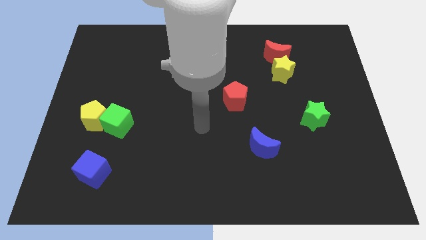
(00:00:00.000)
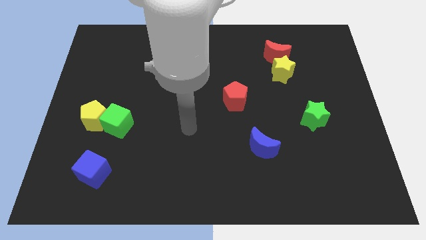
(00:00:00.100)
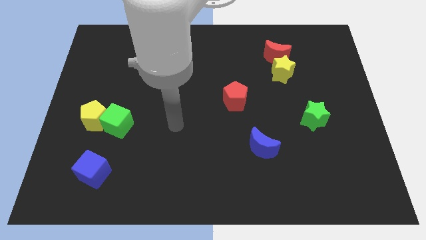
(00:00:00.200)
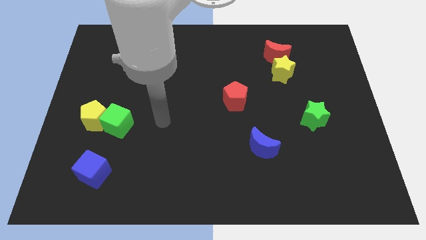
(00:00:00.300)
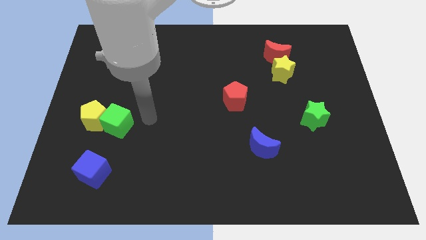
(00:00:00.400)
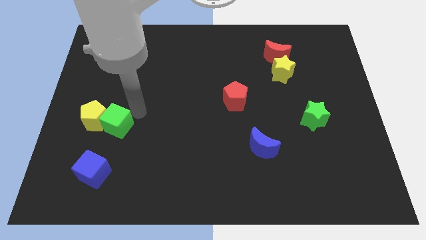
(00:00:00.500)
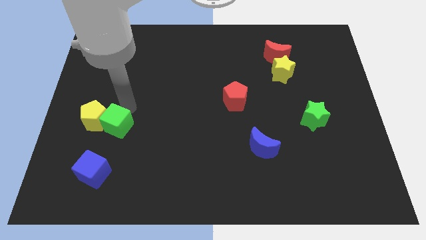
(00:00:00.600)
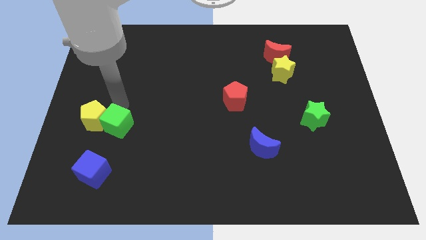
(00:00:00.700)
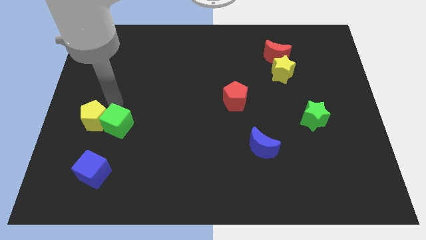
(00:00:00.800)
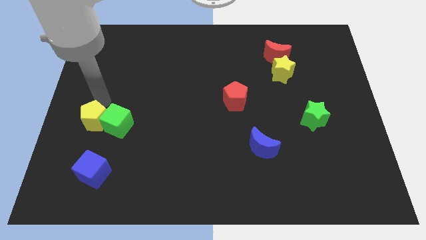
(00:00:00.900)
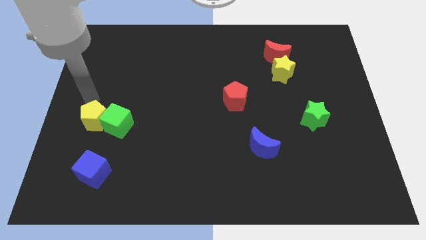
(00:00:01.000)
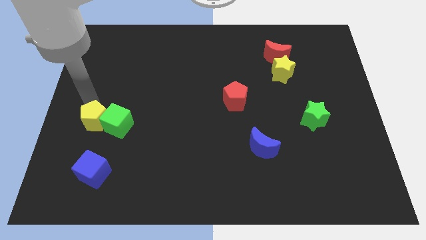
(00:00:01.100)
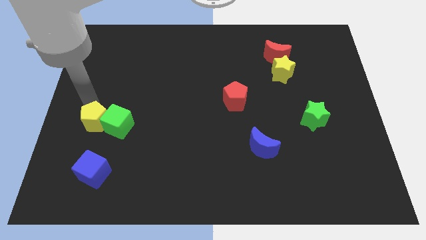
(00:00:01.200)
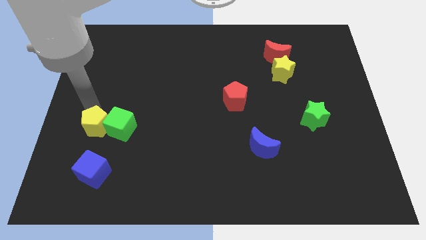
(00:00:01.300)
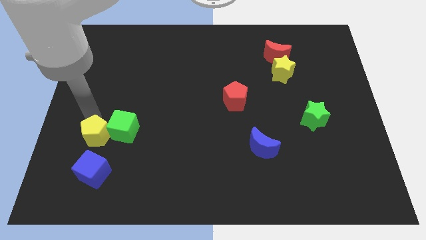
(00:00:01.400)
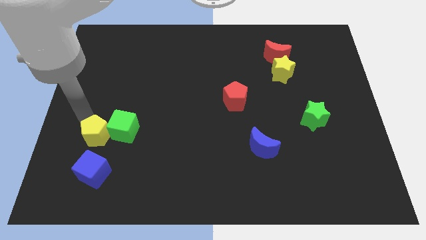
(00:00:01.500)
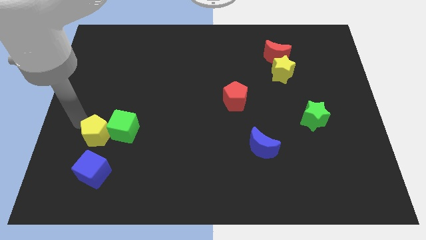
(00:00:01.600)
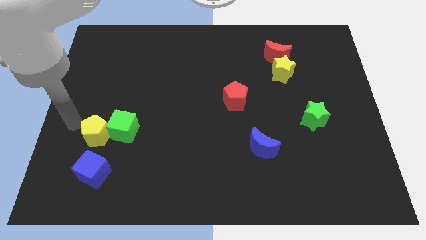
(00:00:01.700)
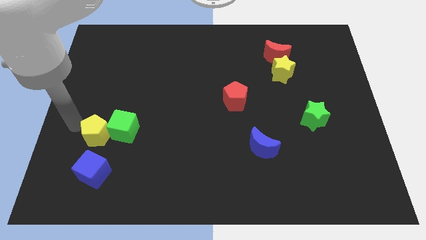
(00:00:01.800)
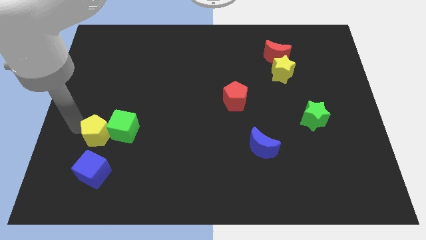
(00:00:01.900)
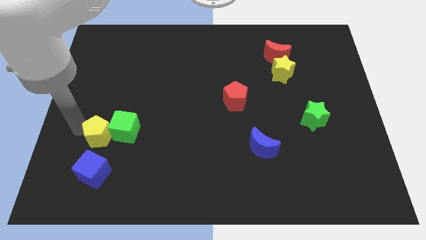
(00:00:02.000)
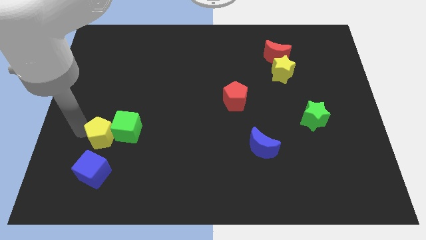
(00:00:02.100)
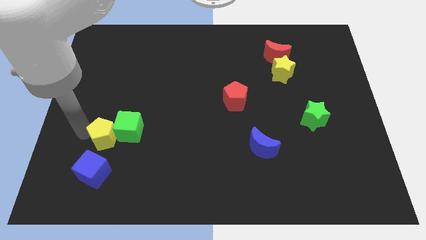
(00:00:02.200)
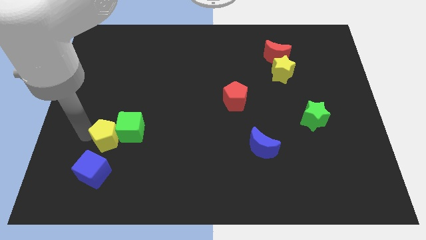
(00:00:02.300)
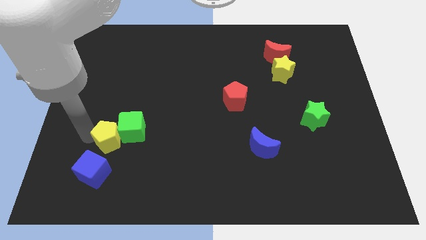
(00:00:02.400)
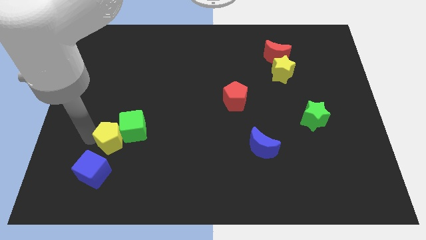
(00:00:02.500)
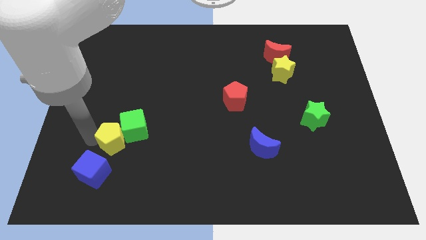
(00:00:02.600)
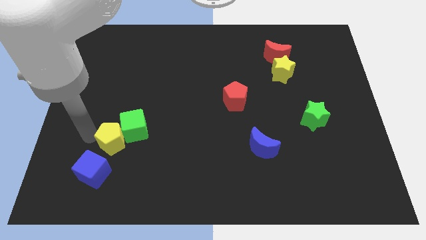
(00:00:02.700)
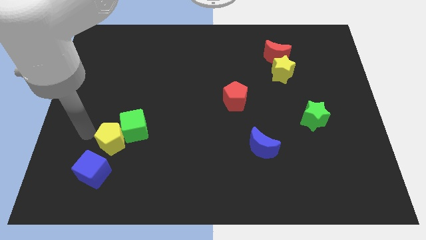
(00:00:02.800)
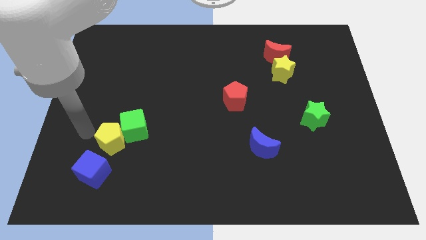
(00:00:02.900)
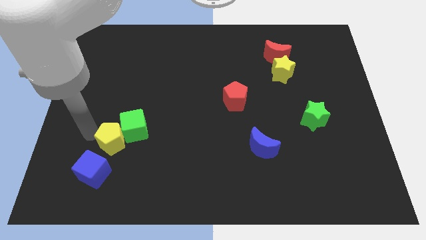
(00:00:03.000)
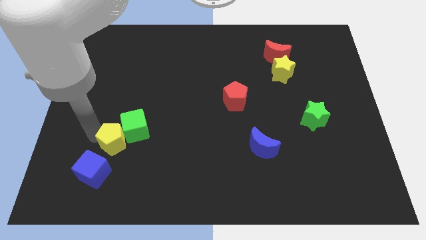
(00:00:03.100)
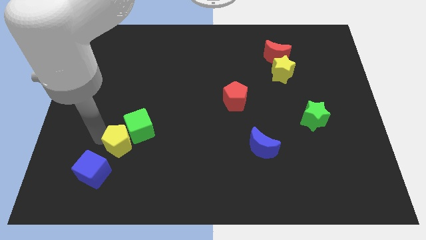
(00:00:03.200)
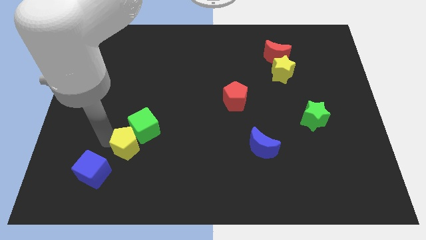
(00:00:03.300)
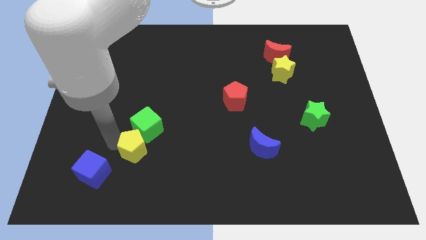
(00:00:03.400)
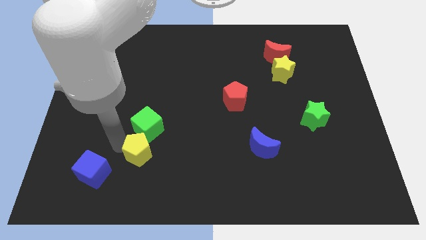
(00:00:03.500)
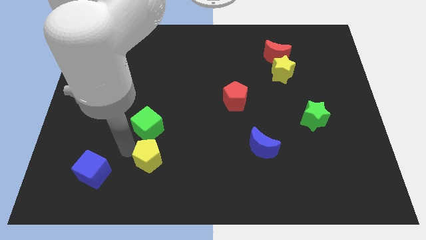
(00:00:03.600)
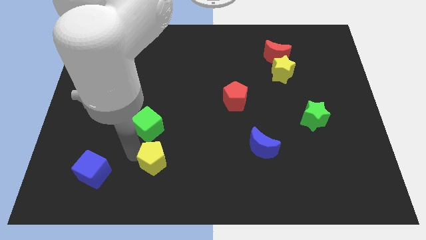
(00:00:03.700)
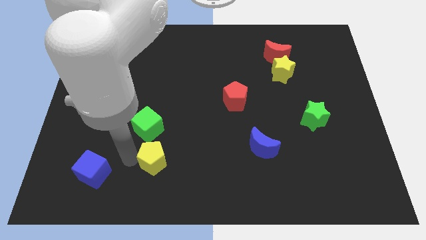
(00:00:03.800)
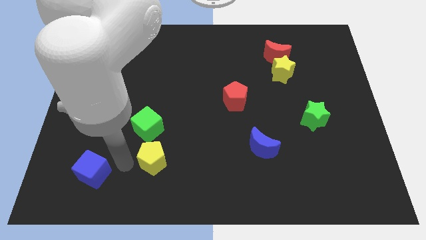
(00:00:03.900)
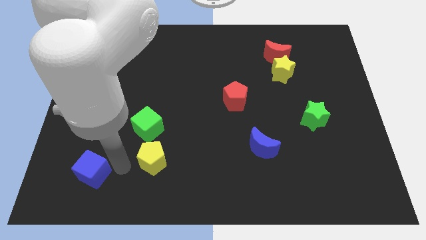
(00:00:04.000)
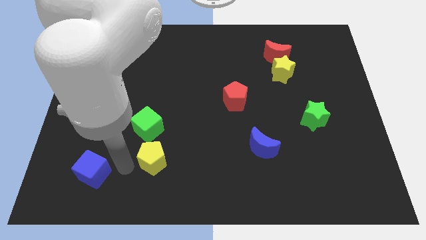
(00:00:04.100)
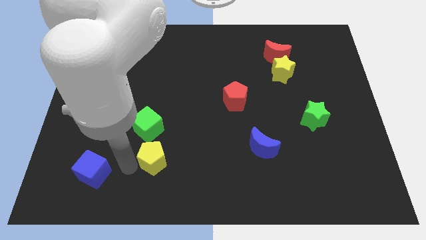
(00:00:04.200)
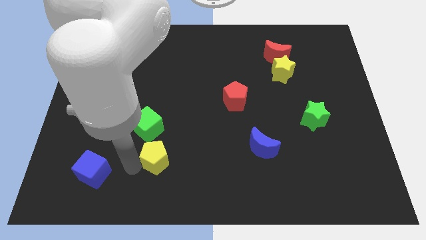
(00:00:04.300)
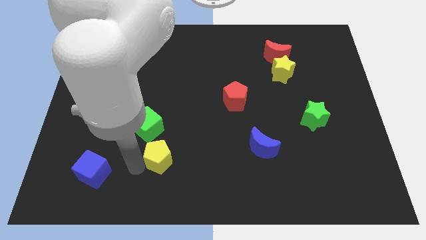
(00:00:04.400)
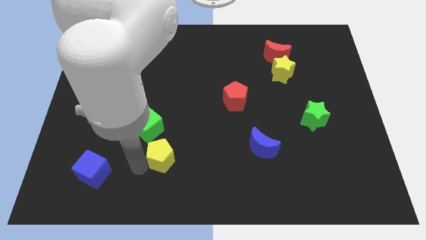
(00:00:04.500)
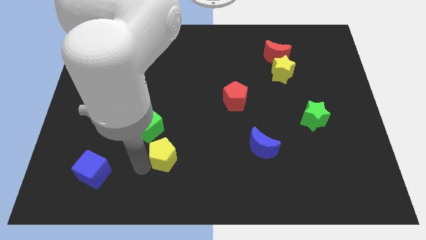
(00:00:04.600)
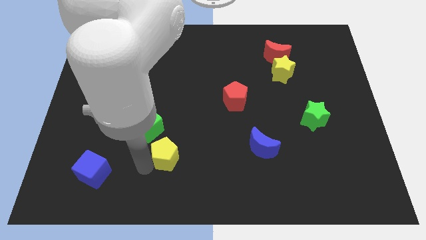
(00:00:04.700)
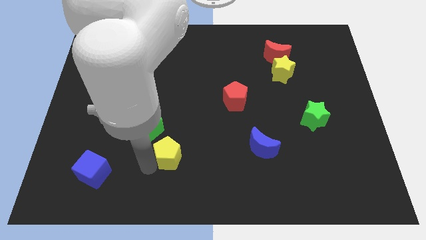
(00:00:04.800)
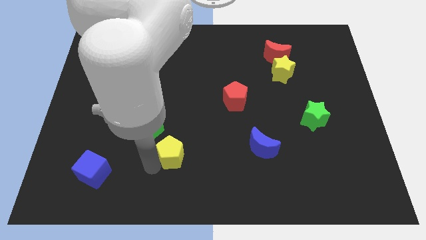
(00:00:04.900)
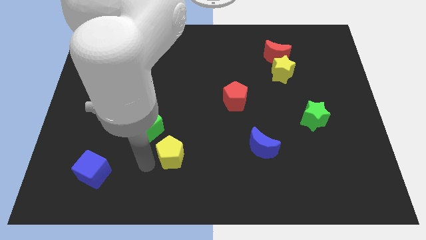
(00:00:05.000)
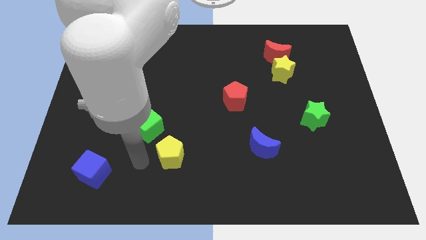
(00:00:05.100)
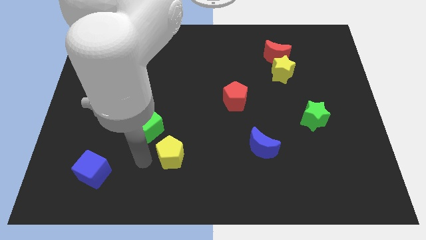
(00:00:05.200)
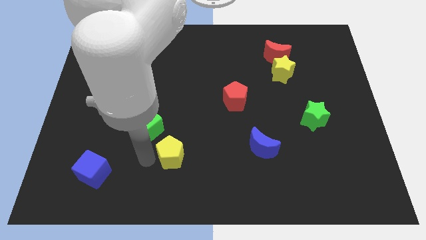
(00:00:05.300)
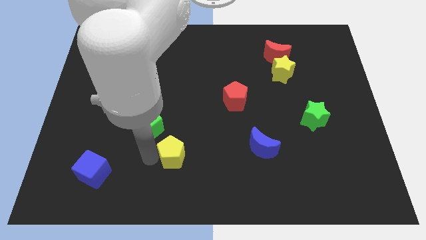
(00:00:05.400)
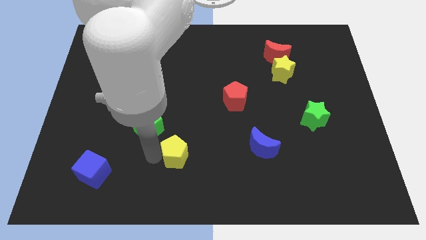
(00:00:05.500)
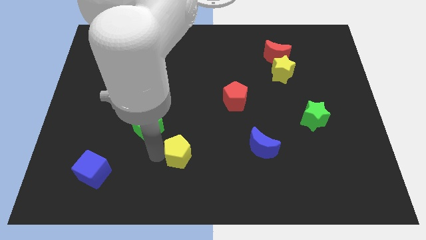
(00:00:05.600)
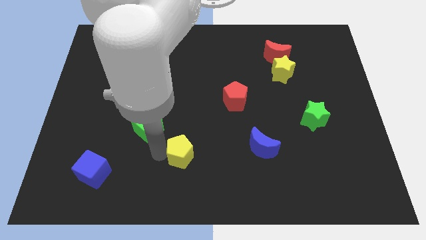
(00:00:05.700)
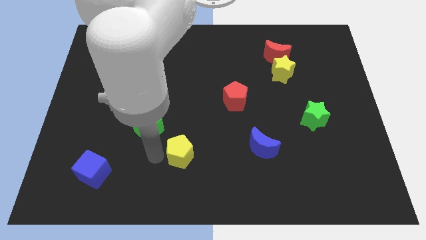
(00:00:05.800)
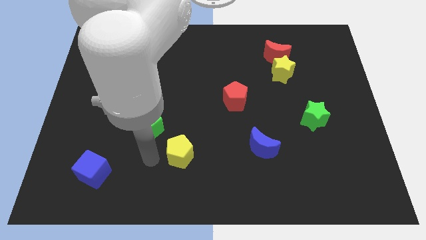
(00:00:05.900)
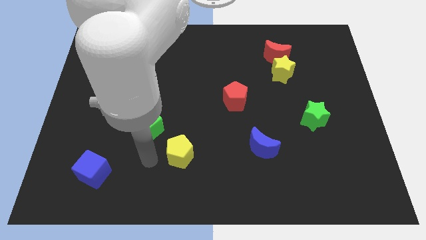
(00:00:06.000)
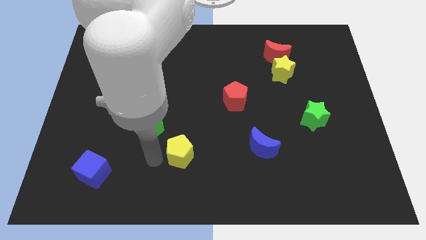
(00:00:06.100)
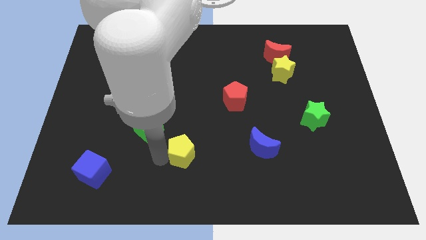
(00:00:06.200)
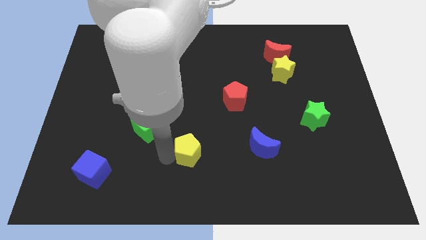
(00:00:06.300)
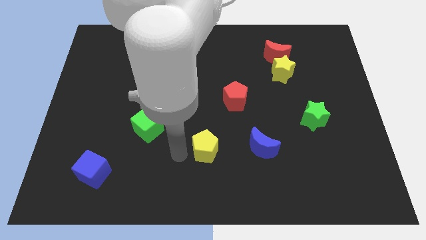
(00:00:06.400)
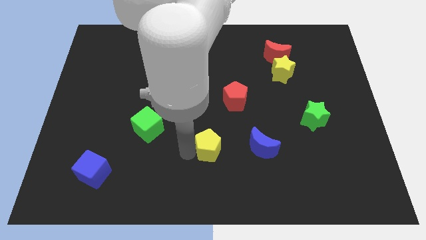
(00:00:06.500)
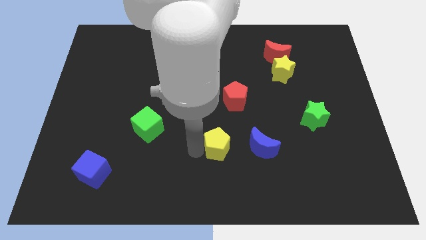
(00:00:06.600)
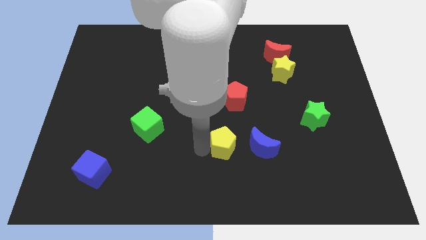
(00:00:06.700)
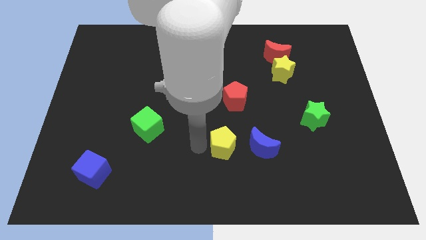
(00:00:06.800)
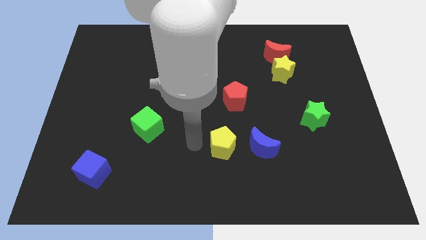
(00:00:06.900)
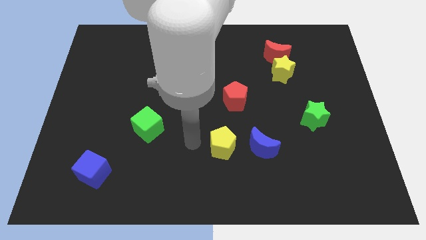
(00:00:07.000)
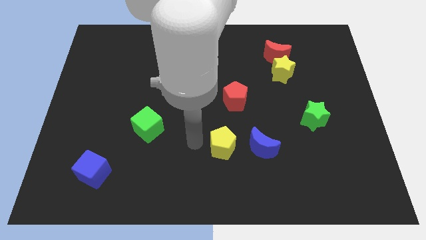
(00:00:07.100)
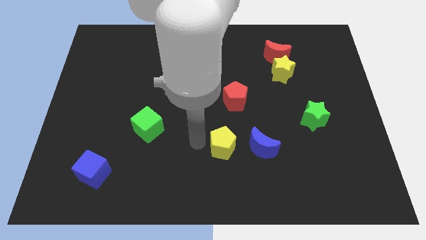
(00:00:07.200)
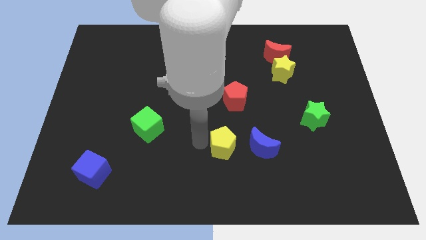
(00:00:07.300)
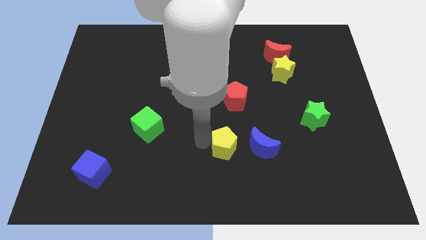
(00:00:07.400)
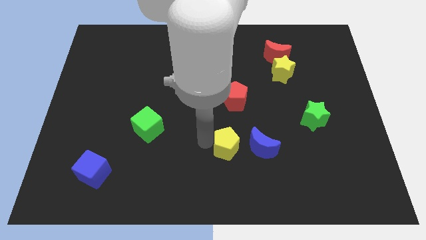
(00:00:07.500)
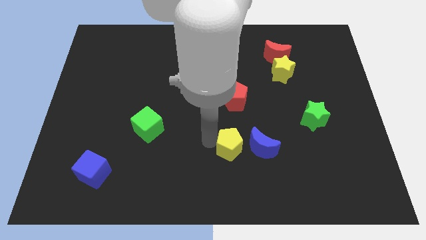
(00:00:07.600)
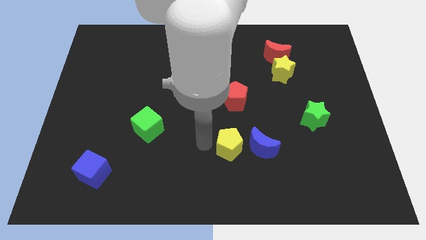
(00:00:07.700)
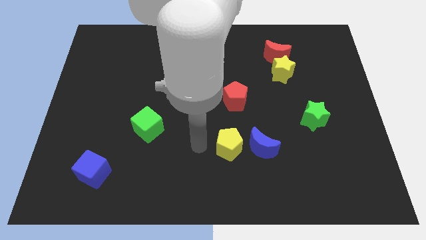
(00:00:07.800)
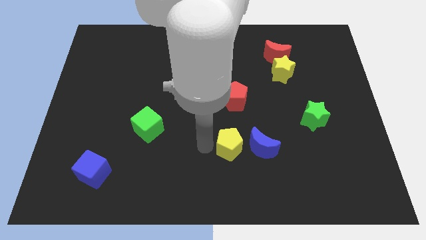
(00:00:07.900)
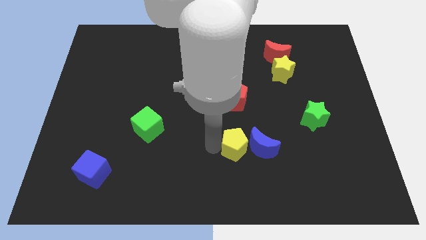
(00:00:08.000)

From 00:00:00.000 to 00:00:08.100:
push the yellow pentagon to the blue moon
